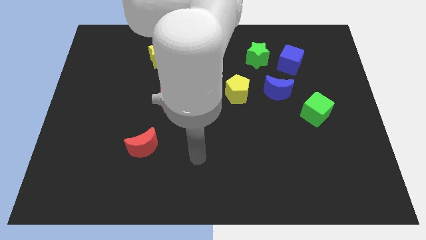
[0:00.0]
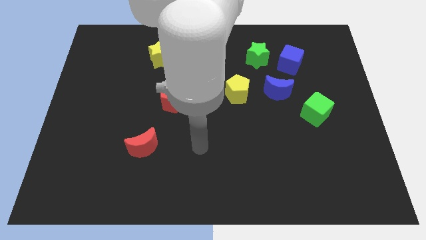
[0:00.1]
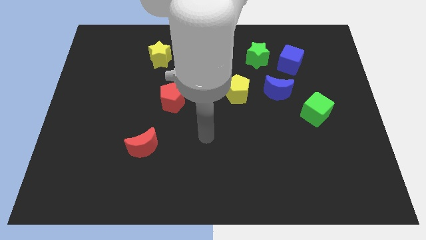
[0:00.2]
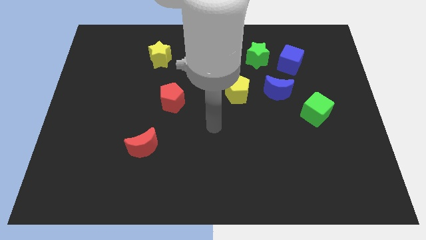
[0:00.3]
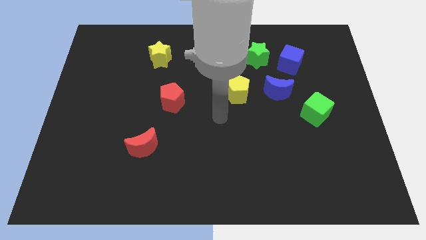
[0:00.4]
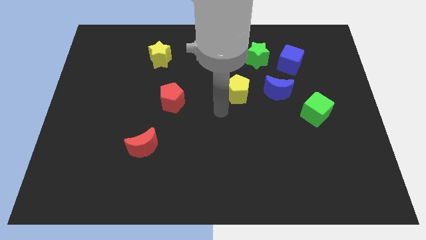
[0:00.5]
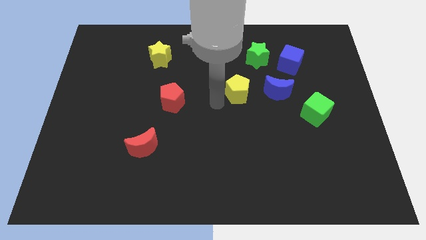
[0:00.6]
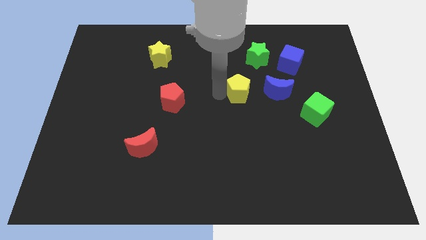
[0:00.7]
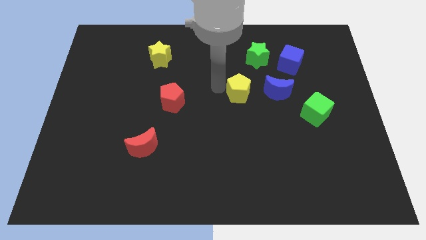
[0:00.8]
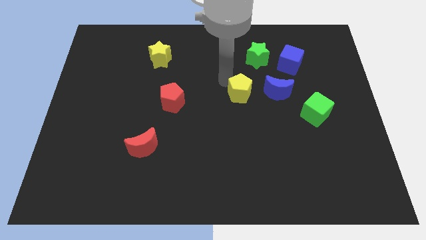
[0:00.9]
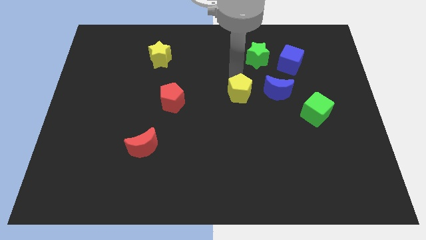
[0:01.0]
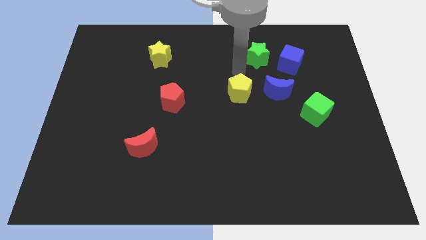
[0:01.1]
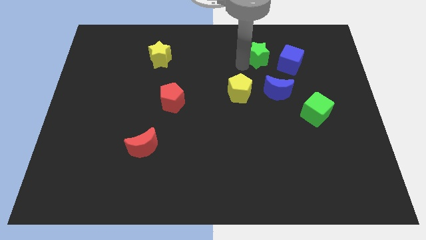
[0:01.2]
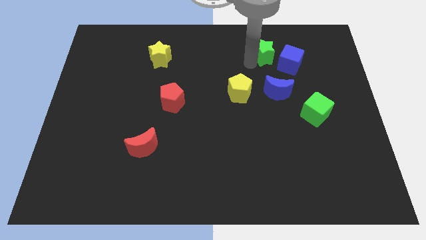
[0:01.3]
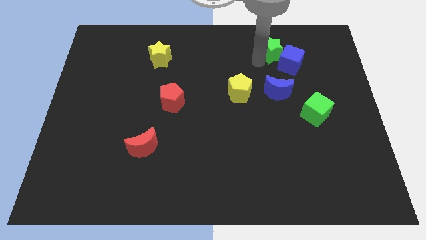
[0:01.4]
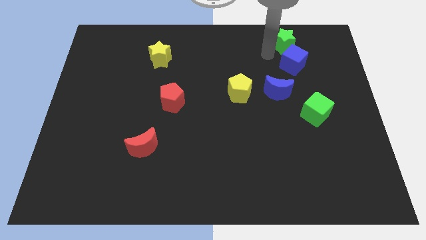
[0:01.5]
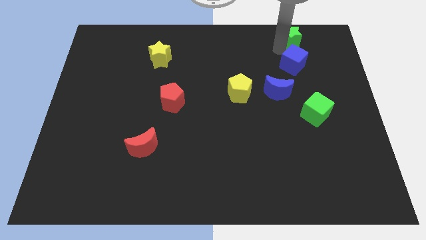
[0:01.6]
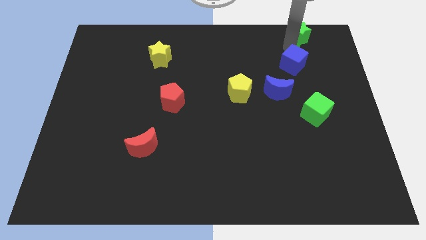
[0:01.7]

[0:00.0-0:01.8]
pull the blue cube apart from the green star

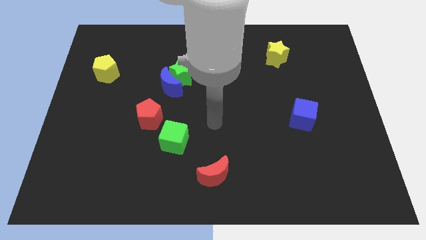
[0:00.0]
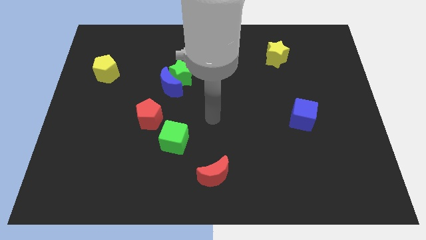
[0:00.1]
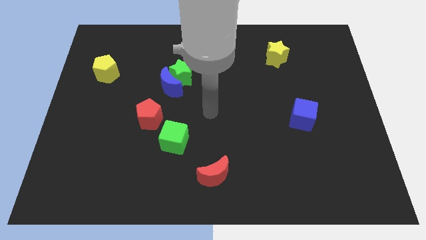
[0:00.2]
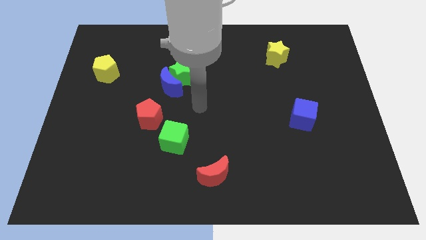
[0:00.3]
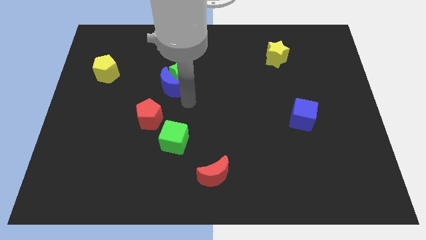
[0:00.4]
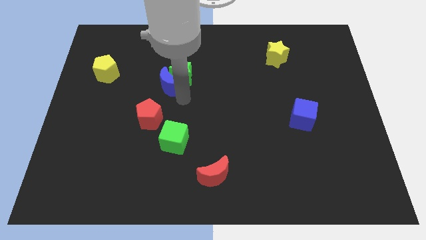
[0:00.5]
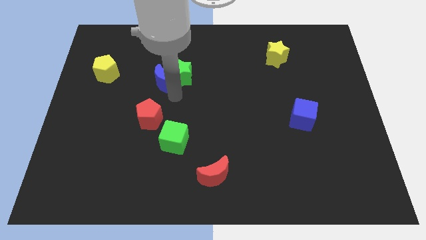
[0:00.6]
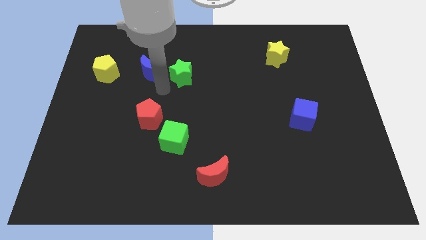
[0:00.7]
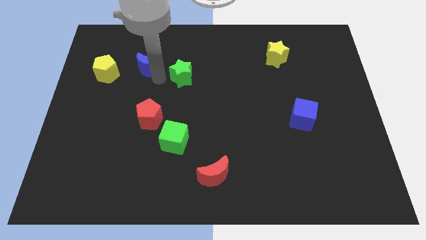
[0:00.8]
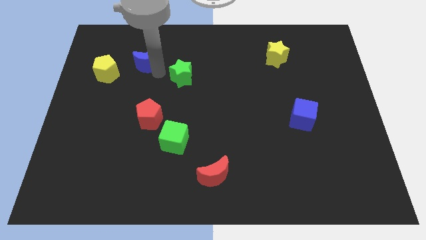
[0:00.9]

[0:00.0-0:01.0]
separate the green star from the blue moon

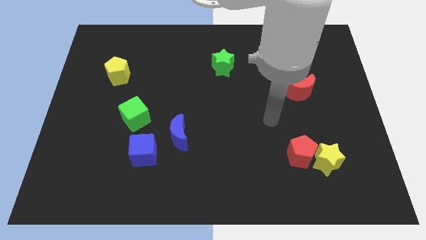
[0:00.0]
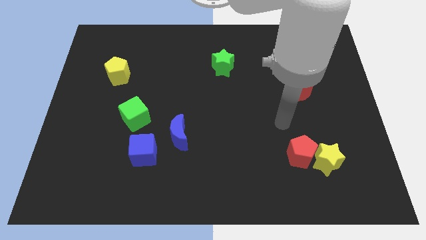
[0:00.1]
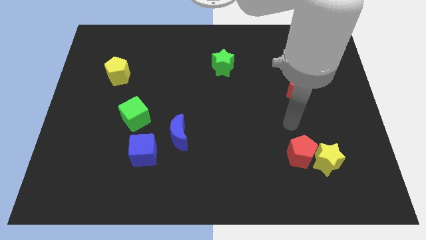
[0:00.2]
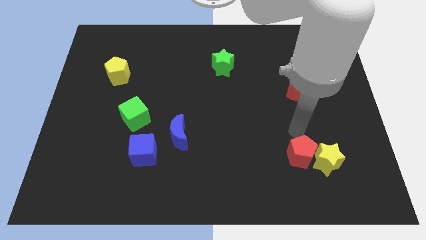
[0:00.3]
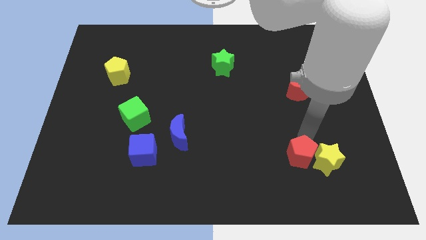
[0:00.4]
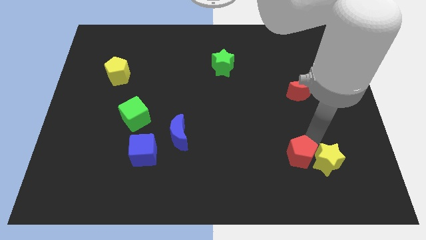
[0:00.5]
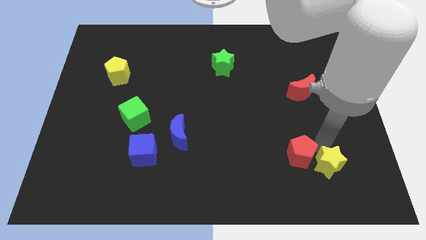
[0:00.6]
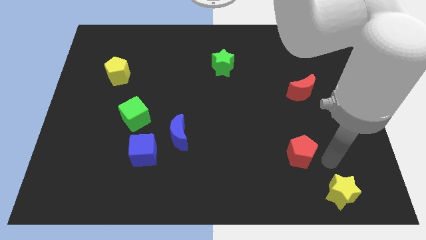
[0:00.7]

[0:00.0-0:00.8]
move the red pentagon away from the yellow star

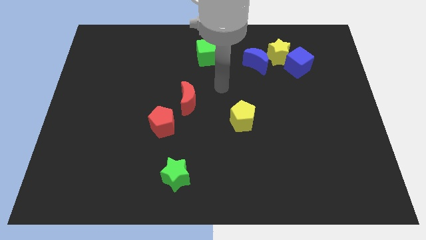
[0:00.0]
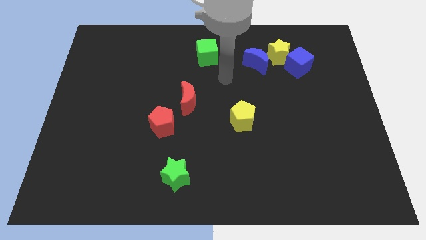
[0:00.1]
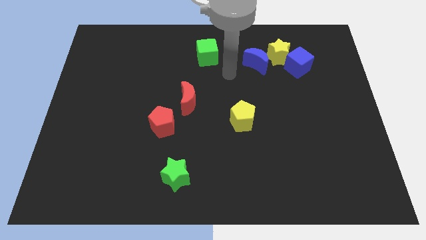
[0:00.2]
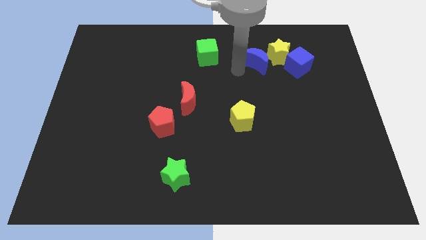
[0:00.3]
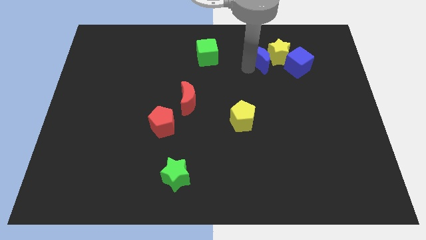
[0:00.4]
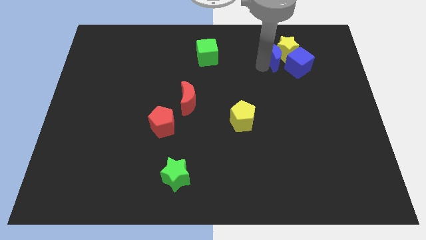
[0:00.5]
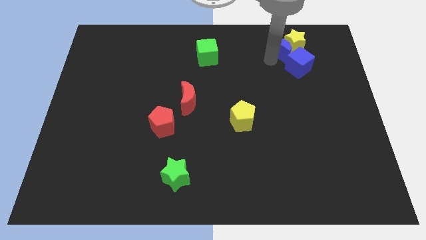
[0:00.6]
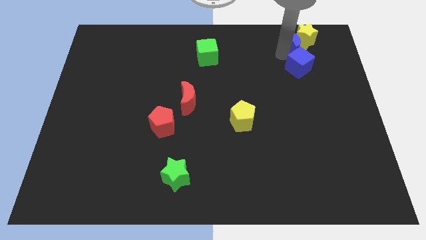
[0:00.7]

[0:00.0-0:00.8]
move the blue cube away from the yellow star

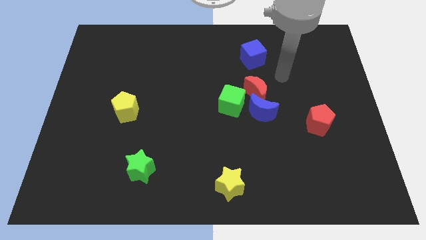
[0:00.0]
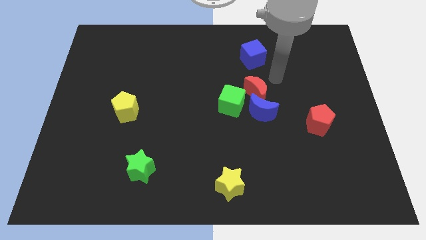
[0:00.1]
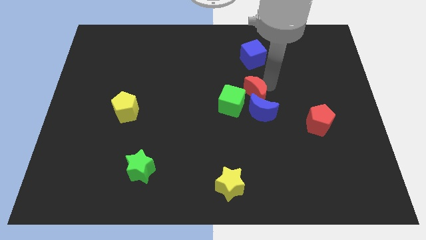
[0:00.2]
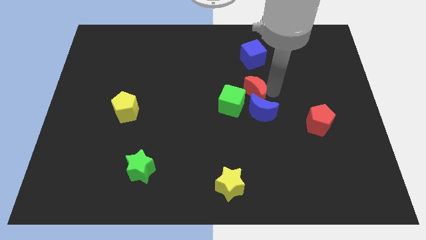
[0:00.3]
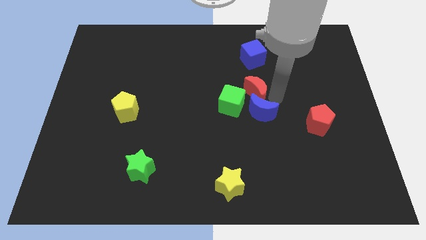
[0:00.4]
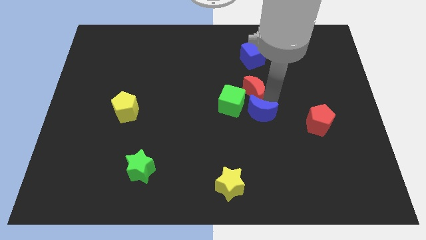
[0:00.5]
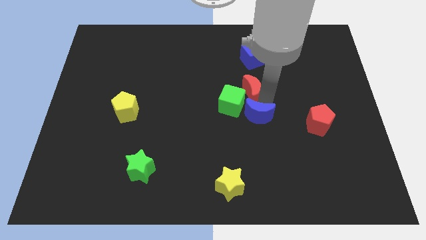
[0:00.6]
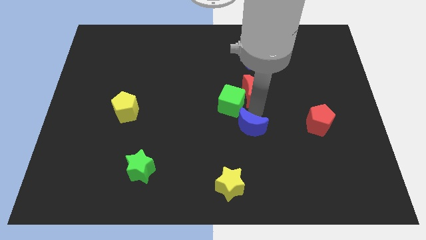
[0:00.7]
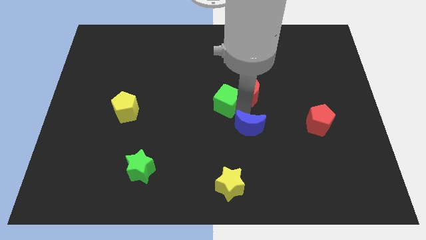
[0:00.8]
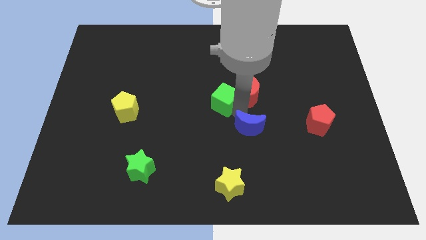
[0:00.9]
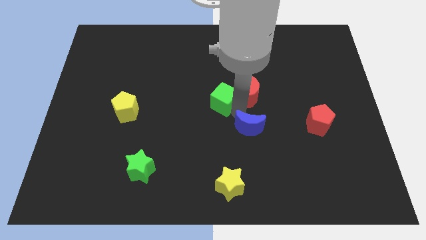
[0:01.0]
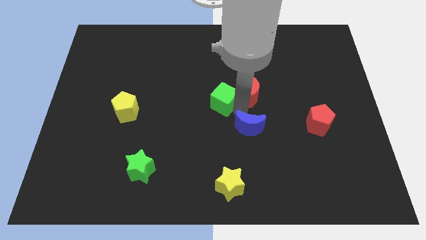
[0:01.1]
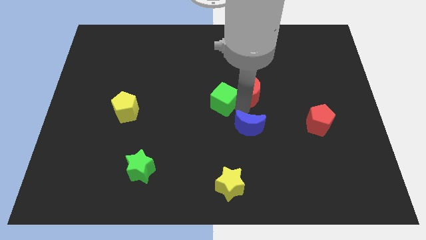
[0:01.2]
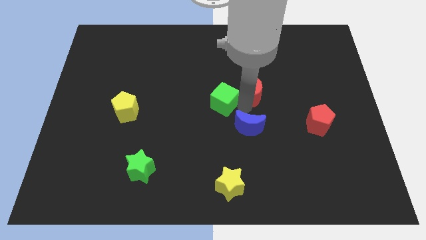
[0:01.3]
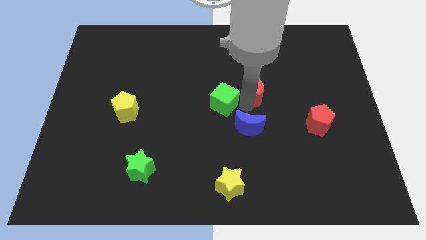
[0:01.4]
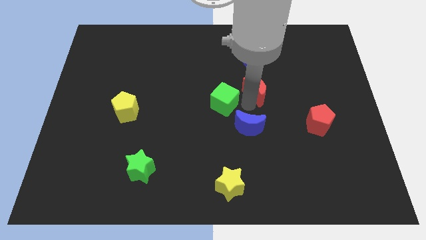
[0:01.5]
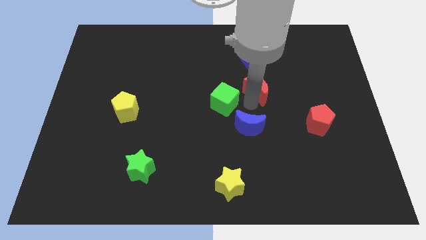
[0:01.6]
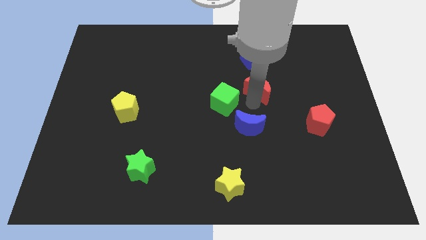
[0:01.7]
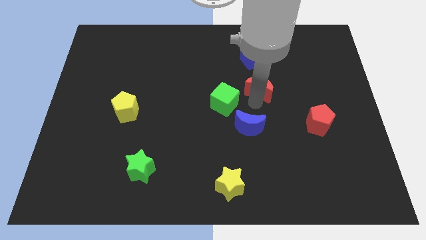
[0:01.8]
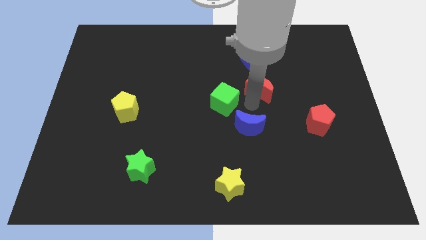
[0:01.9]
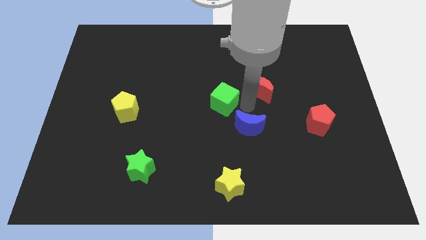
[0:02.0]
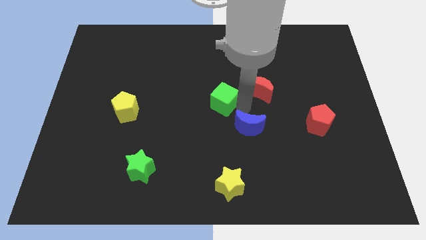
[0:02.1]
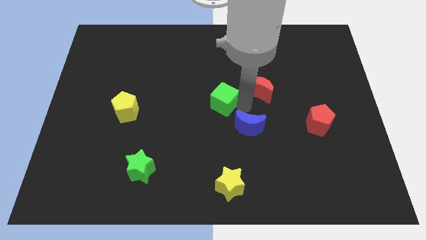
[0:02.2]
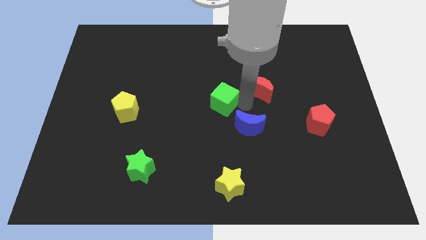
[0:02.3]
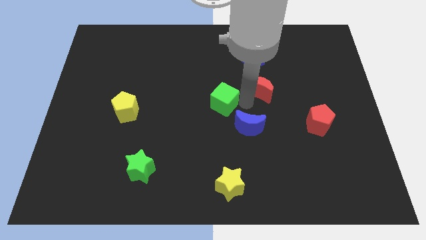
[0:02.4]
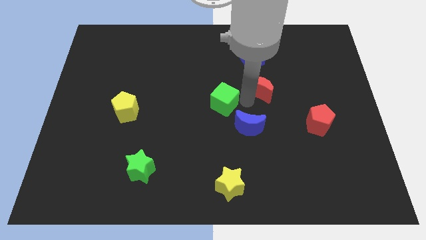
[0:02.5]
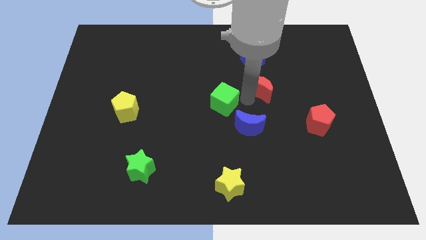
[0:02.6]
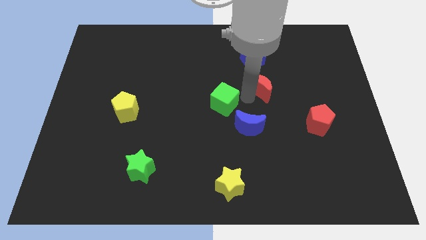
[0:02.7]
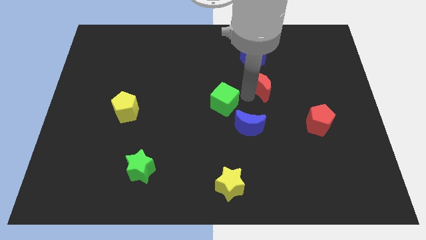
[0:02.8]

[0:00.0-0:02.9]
separate the red moon from the blue moon and green cube

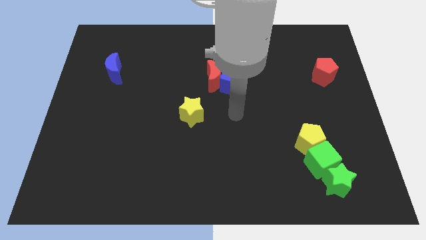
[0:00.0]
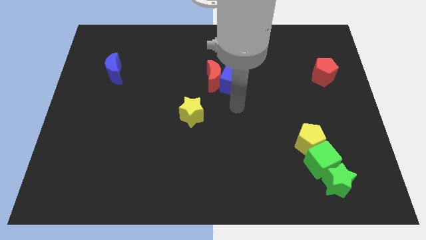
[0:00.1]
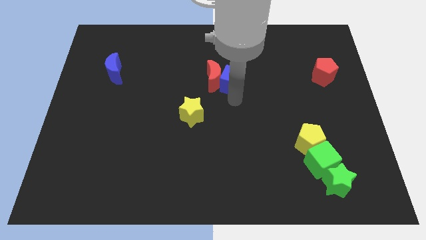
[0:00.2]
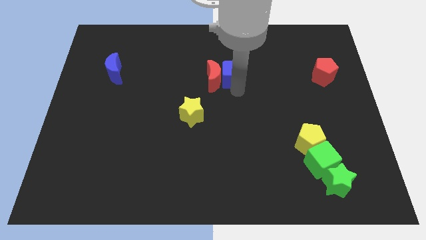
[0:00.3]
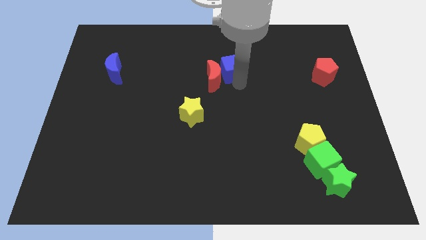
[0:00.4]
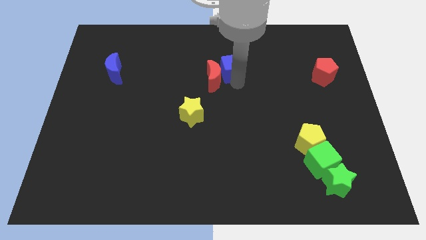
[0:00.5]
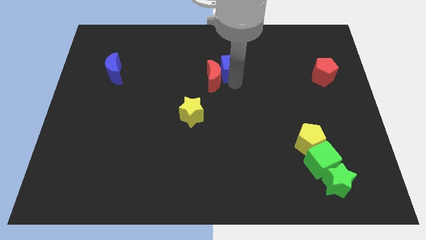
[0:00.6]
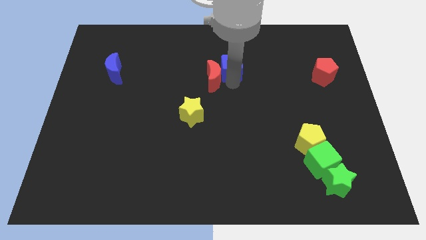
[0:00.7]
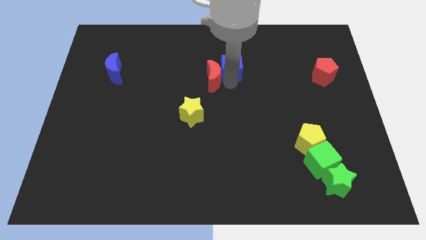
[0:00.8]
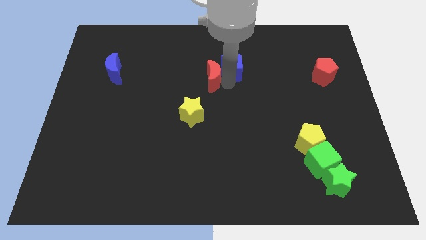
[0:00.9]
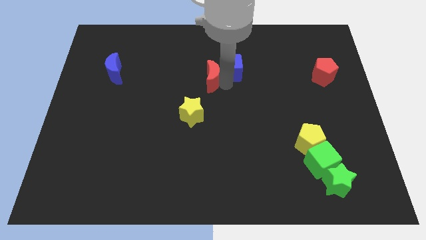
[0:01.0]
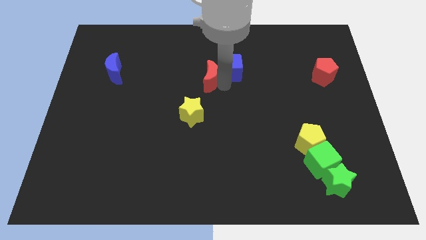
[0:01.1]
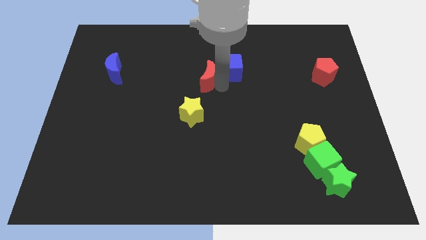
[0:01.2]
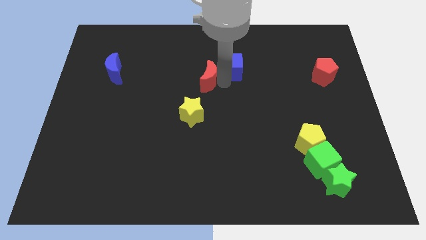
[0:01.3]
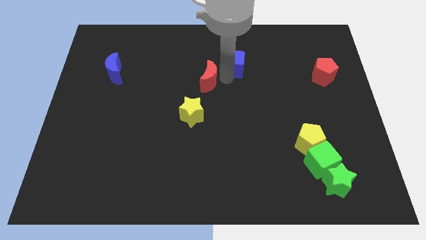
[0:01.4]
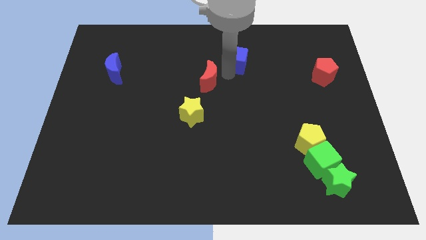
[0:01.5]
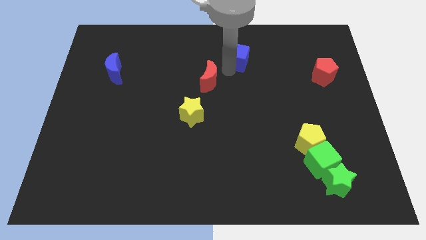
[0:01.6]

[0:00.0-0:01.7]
separate the red moon from the blue cube

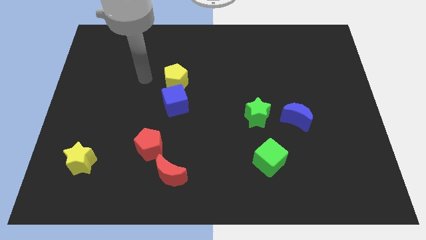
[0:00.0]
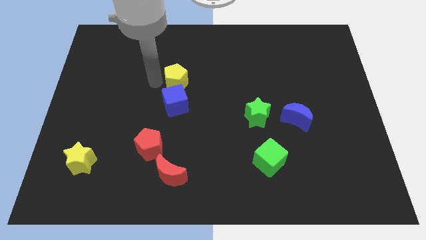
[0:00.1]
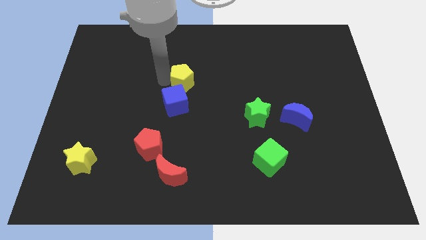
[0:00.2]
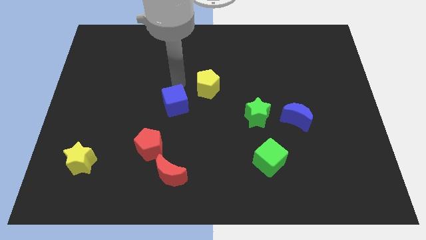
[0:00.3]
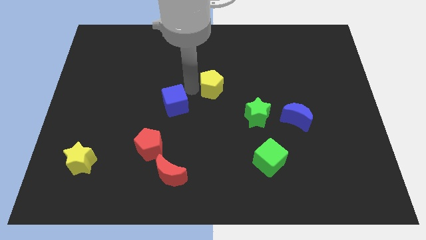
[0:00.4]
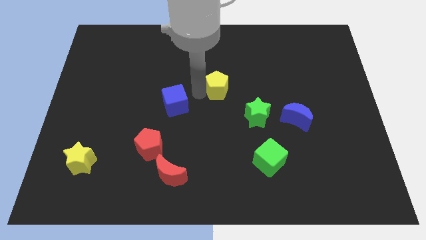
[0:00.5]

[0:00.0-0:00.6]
separate the blue cube from the yellow pentagon
